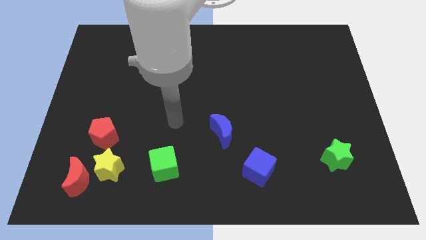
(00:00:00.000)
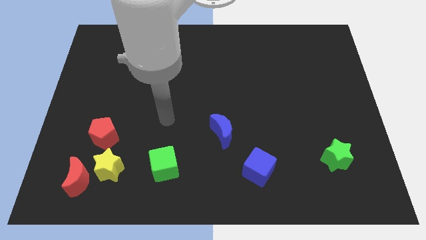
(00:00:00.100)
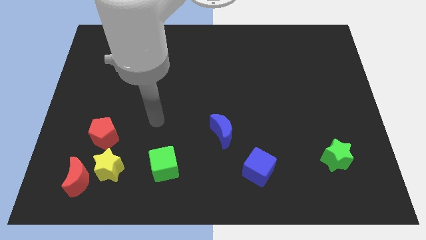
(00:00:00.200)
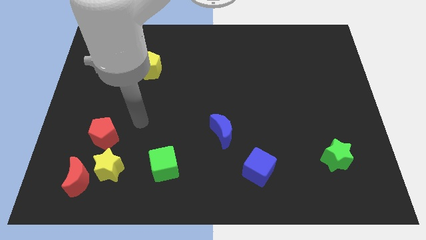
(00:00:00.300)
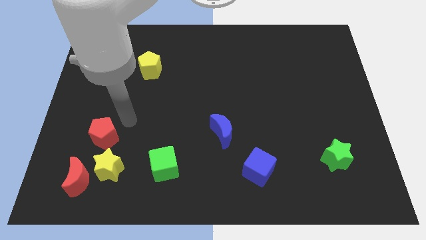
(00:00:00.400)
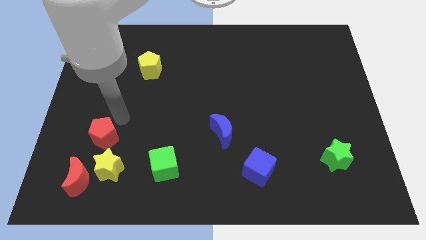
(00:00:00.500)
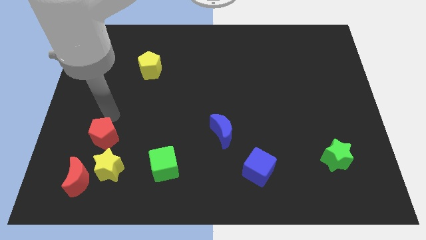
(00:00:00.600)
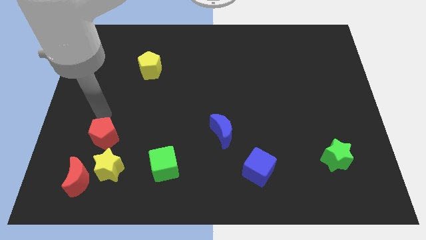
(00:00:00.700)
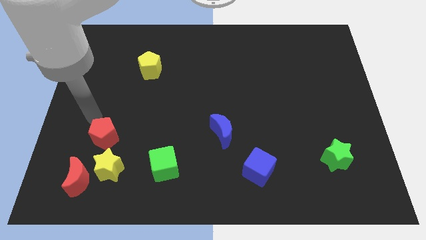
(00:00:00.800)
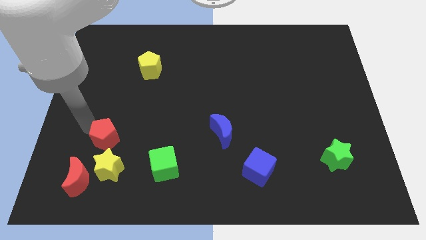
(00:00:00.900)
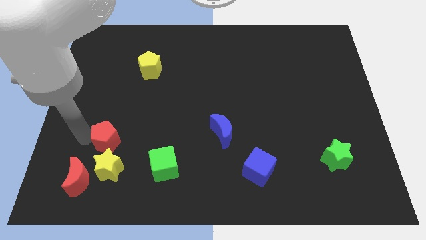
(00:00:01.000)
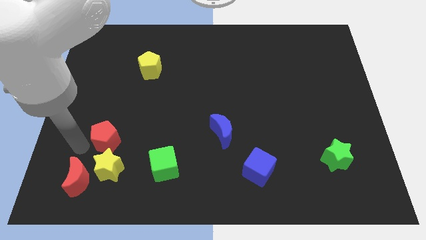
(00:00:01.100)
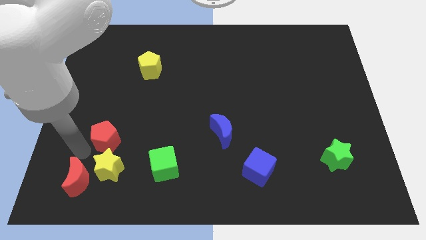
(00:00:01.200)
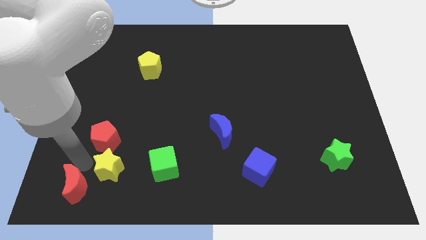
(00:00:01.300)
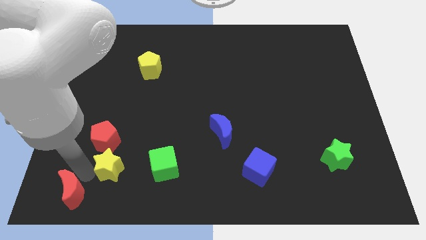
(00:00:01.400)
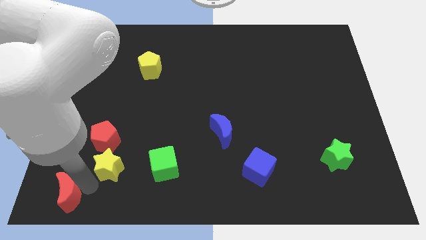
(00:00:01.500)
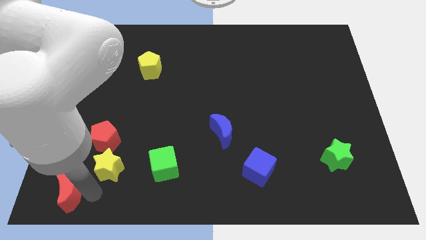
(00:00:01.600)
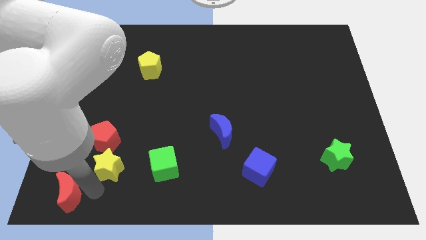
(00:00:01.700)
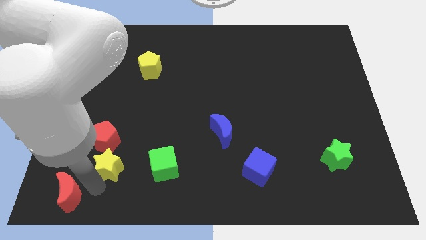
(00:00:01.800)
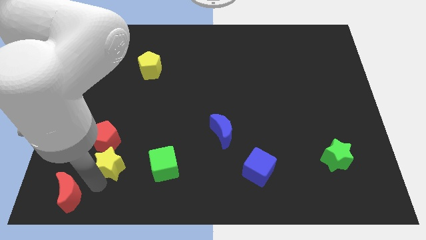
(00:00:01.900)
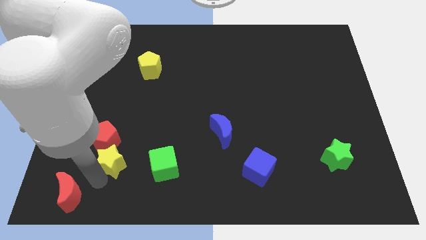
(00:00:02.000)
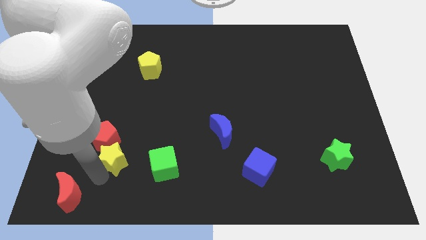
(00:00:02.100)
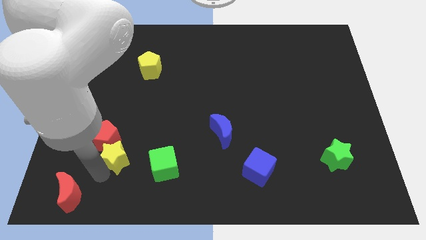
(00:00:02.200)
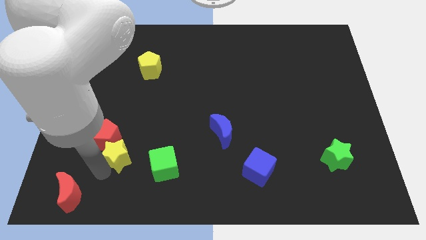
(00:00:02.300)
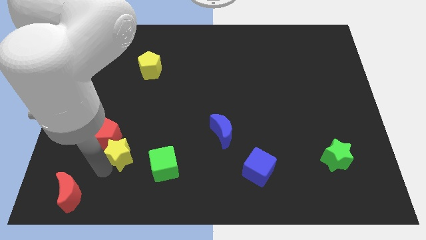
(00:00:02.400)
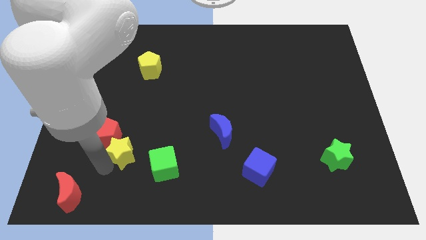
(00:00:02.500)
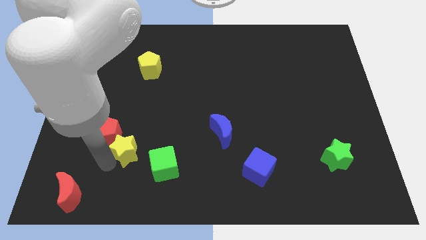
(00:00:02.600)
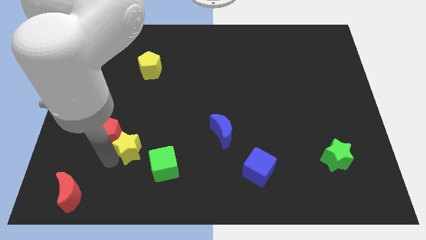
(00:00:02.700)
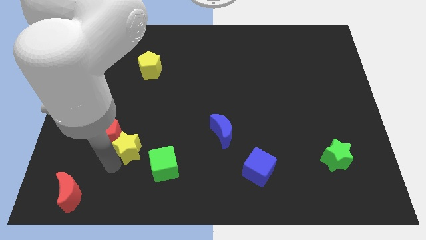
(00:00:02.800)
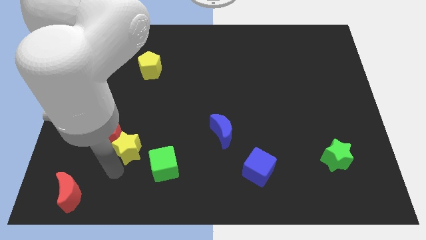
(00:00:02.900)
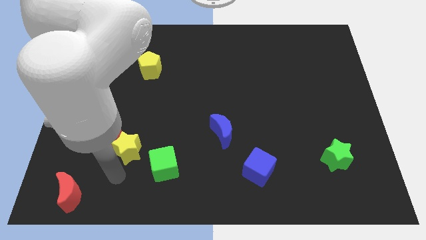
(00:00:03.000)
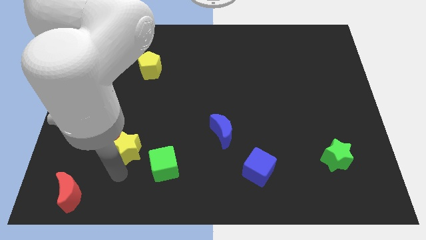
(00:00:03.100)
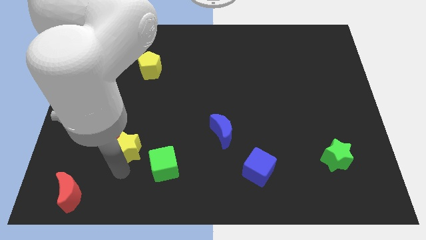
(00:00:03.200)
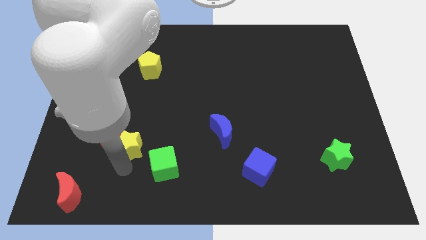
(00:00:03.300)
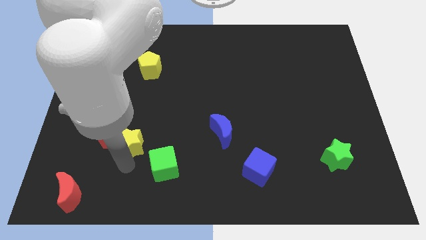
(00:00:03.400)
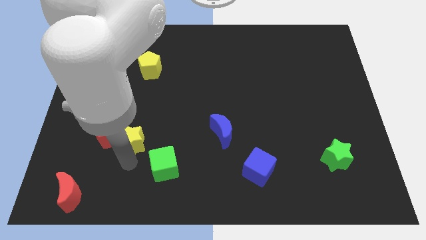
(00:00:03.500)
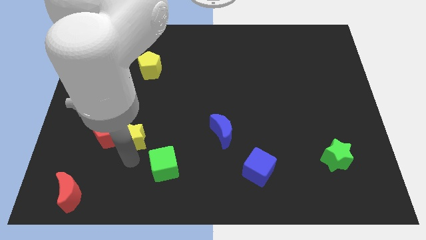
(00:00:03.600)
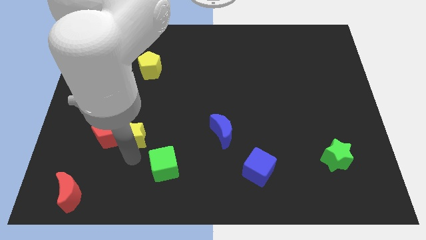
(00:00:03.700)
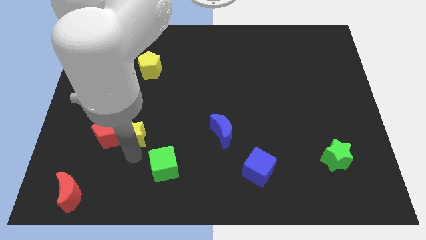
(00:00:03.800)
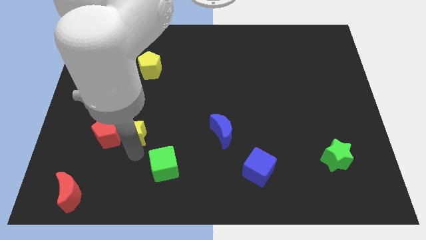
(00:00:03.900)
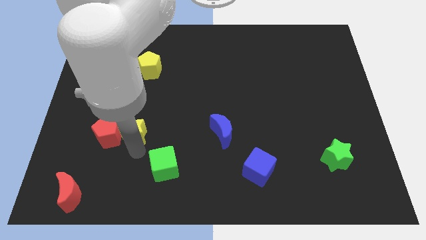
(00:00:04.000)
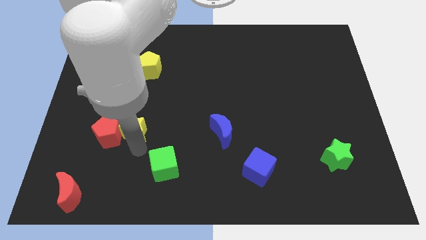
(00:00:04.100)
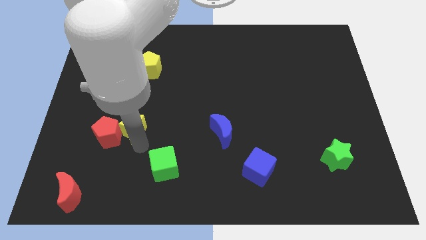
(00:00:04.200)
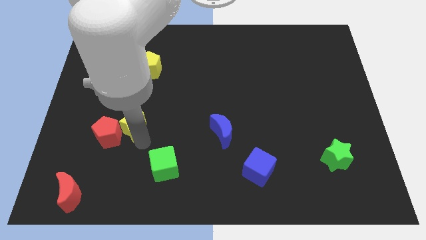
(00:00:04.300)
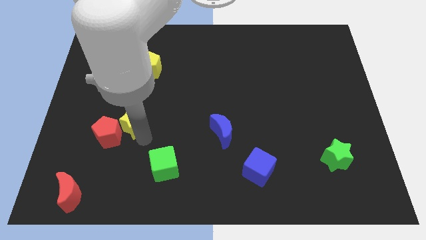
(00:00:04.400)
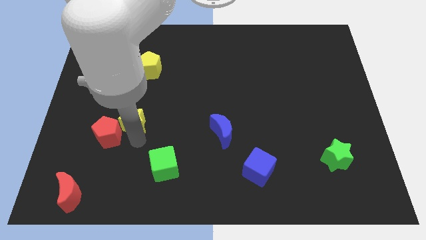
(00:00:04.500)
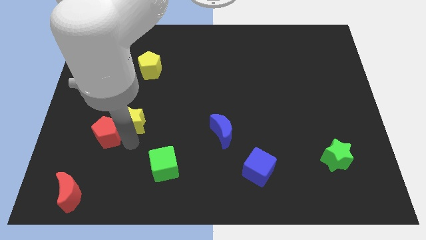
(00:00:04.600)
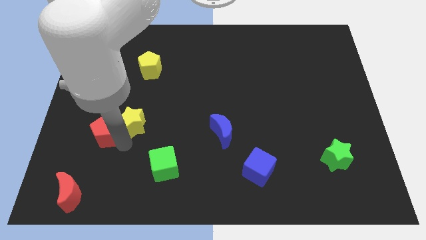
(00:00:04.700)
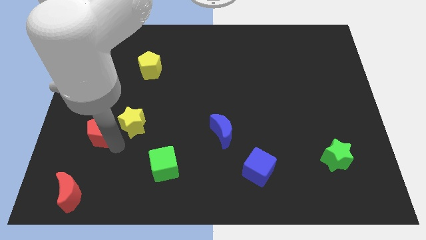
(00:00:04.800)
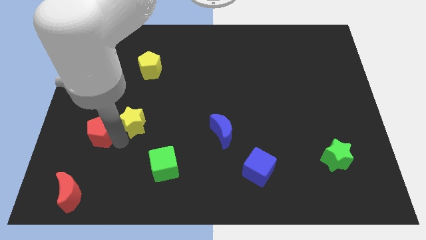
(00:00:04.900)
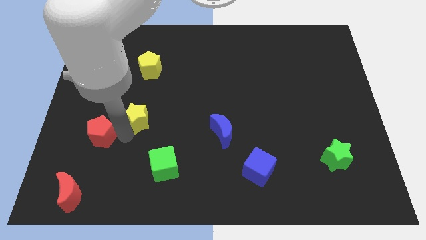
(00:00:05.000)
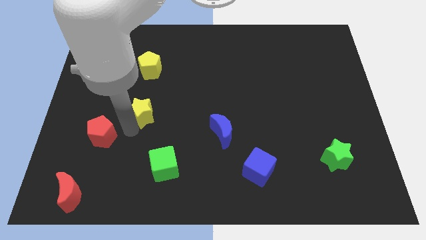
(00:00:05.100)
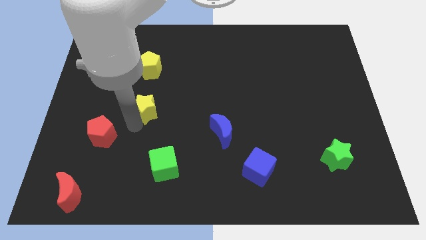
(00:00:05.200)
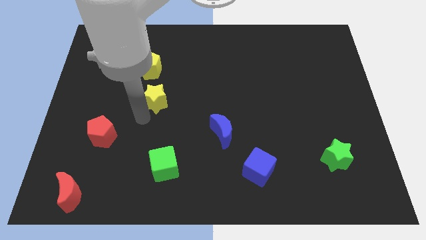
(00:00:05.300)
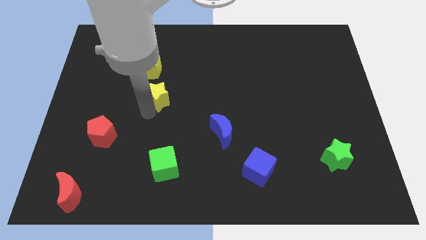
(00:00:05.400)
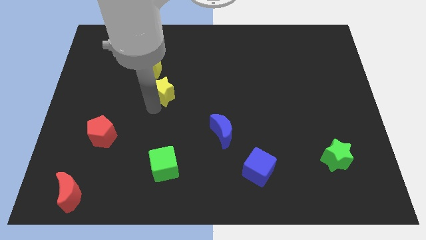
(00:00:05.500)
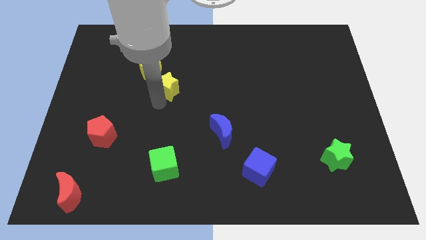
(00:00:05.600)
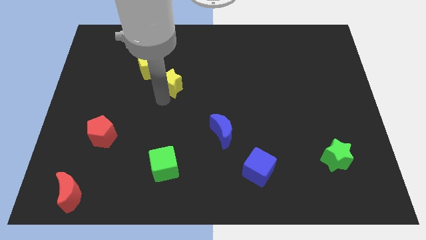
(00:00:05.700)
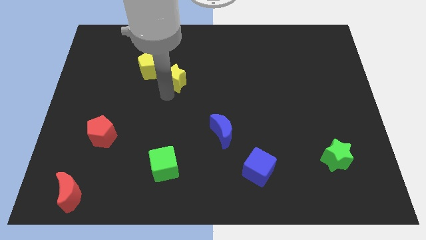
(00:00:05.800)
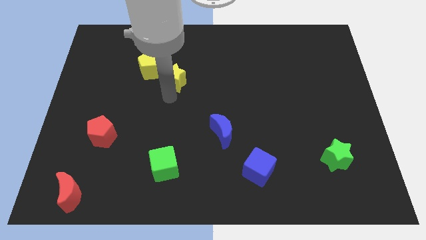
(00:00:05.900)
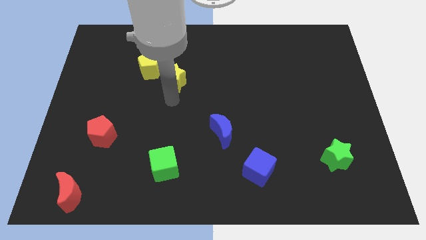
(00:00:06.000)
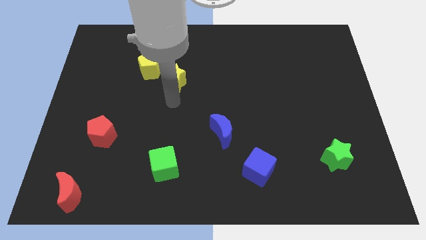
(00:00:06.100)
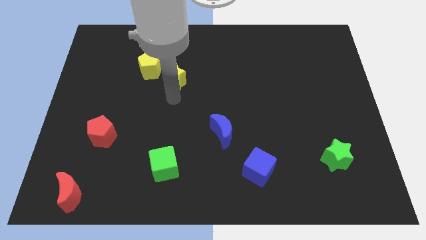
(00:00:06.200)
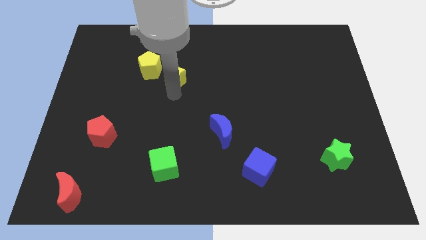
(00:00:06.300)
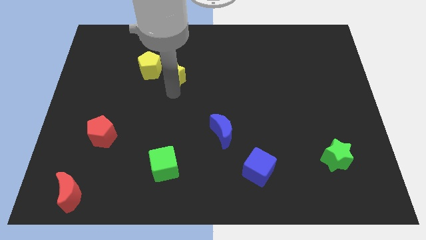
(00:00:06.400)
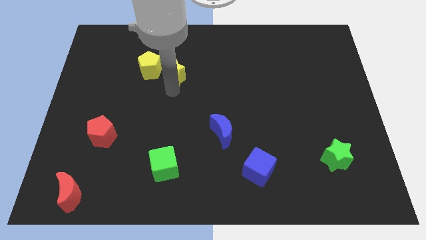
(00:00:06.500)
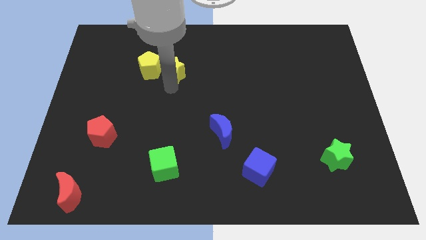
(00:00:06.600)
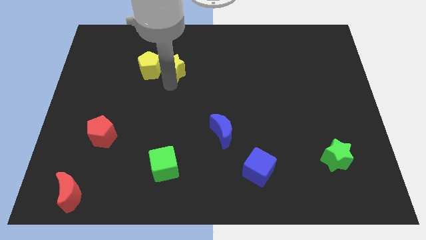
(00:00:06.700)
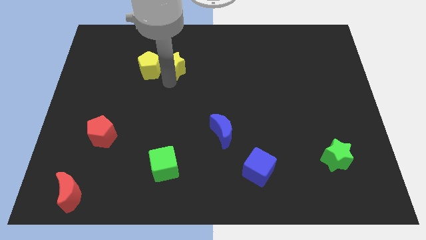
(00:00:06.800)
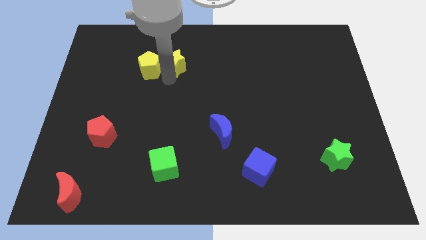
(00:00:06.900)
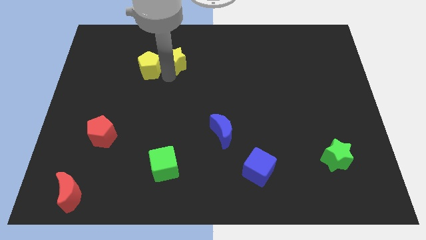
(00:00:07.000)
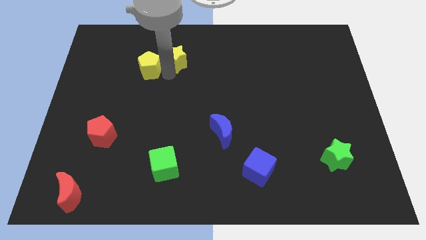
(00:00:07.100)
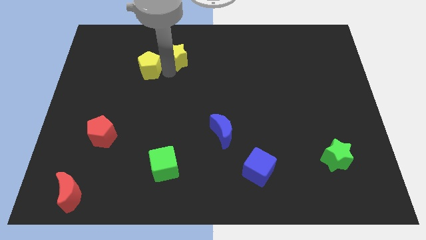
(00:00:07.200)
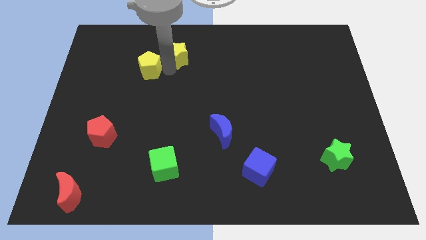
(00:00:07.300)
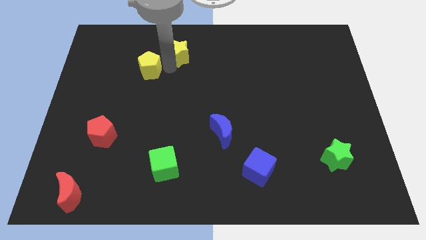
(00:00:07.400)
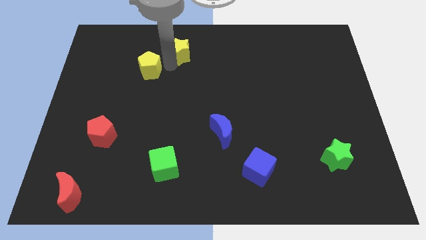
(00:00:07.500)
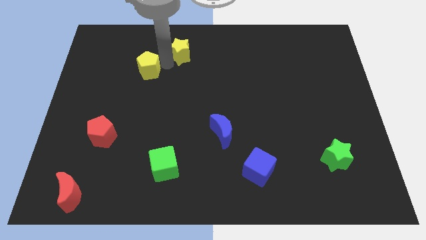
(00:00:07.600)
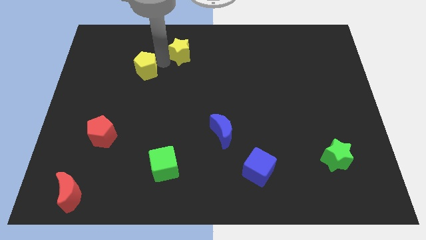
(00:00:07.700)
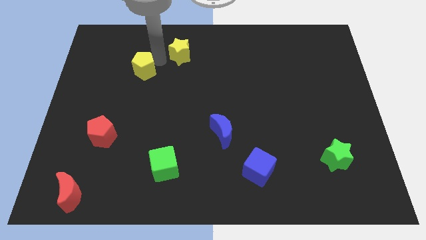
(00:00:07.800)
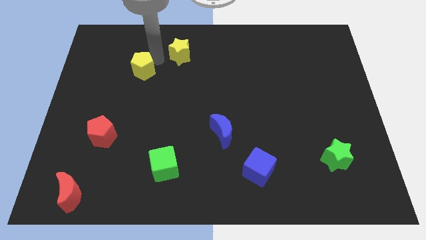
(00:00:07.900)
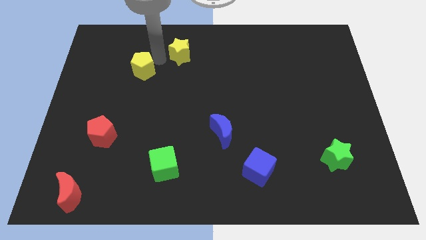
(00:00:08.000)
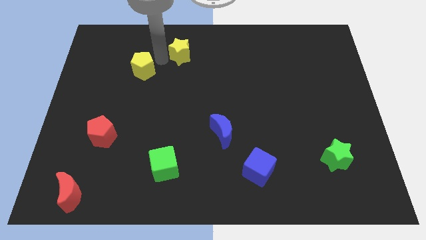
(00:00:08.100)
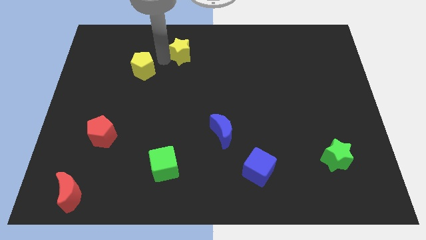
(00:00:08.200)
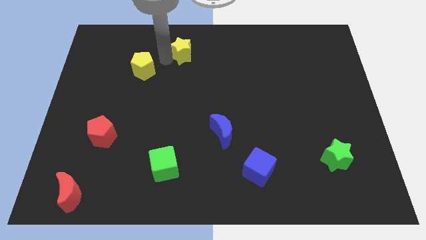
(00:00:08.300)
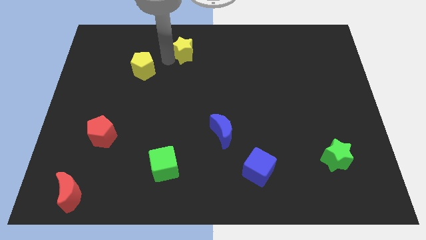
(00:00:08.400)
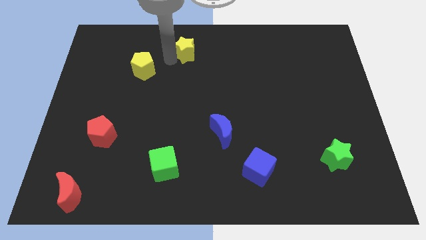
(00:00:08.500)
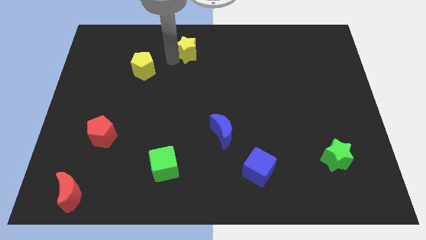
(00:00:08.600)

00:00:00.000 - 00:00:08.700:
put the yellow star to the top side
